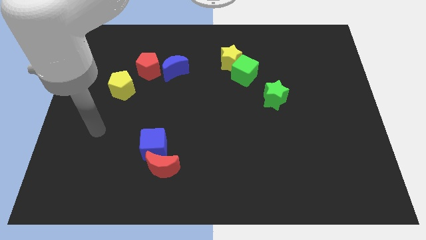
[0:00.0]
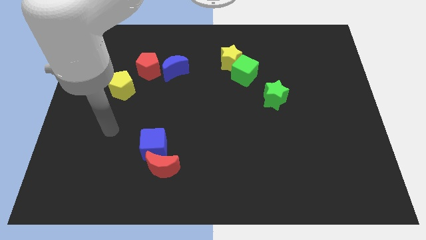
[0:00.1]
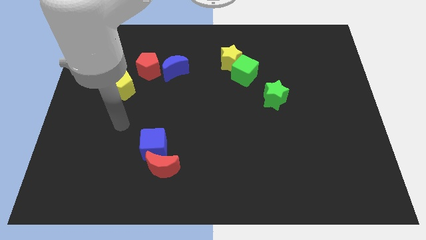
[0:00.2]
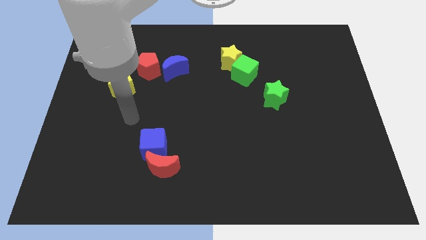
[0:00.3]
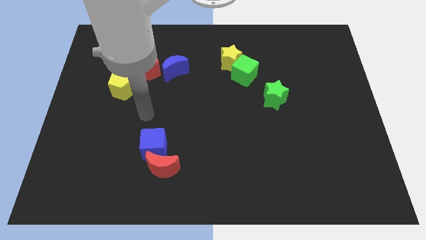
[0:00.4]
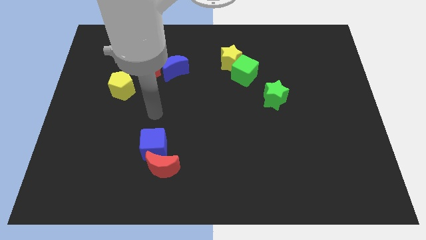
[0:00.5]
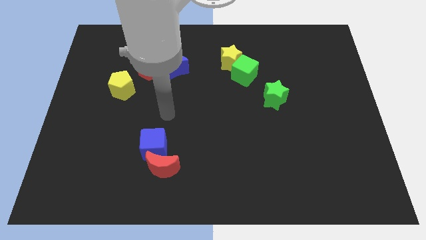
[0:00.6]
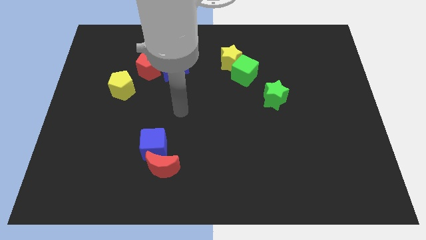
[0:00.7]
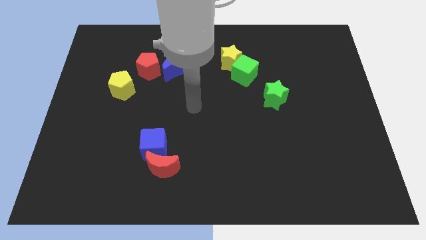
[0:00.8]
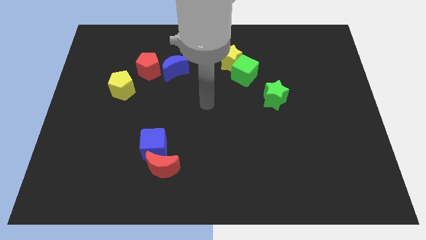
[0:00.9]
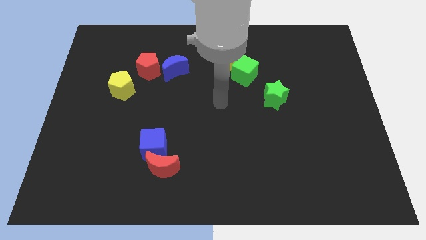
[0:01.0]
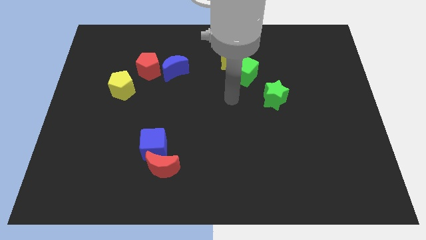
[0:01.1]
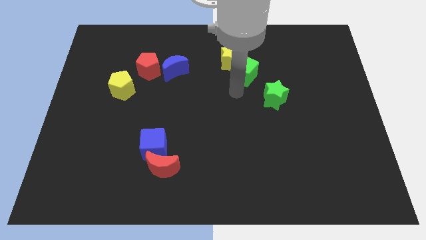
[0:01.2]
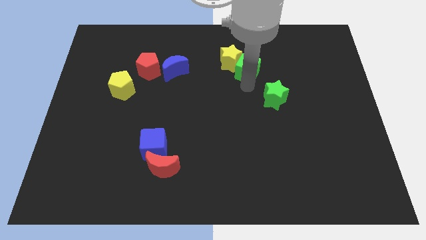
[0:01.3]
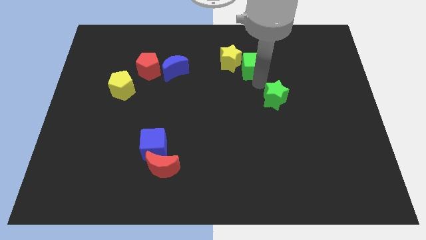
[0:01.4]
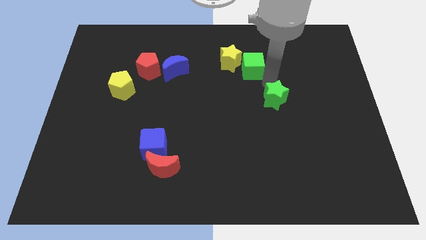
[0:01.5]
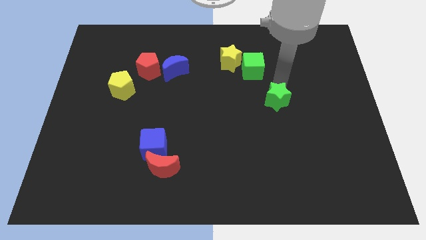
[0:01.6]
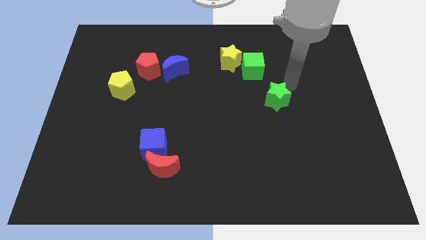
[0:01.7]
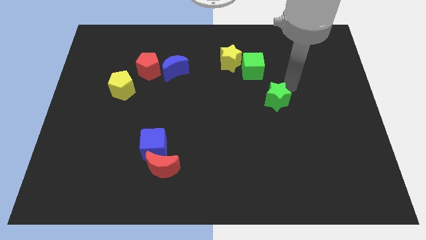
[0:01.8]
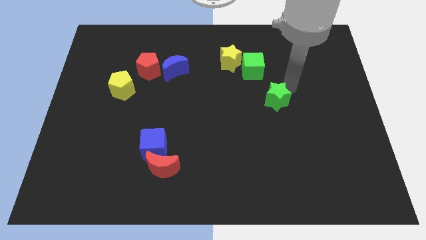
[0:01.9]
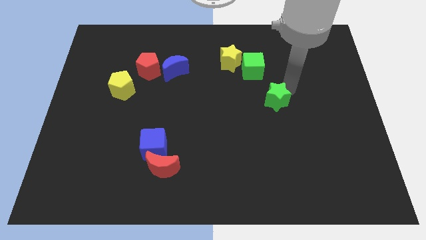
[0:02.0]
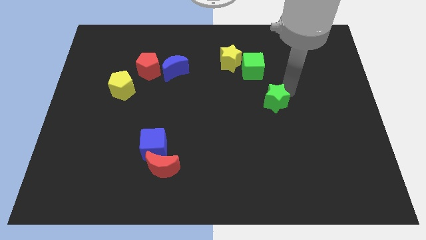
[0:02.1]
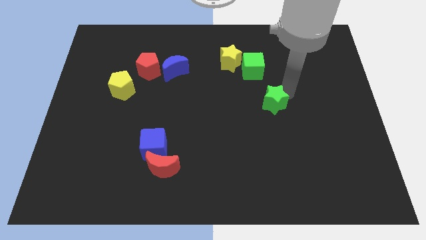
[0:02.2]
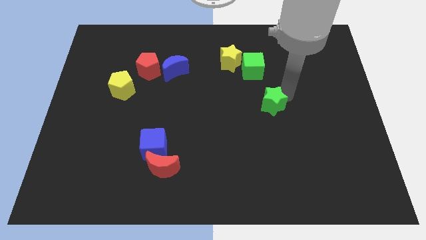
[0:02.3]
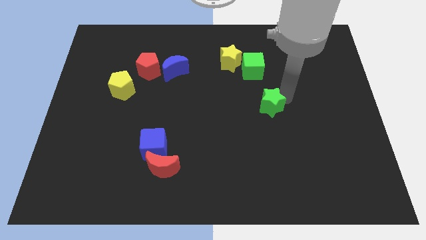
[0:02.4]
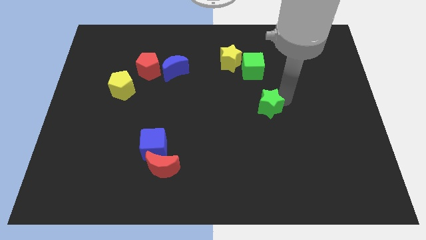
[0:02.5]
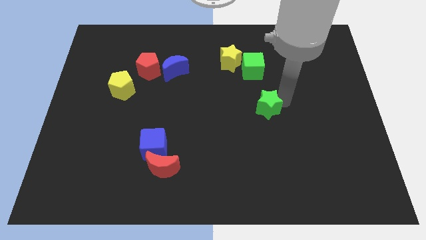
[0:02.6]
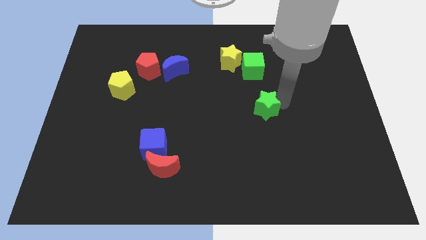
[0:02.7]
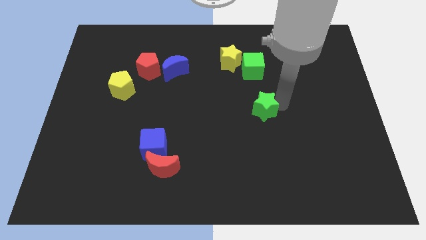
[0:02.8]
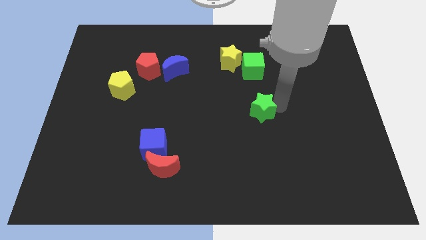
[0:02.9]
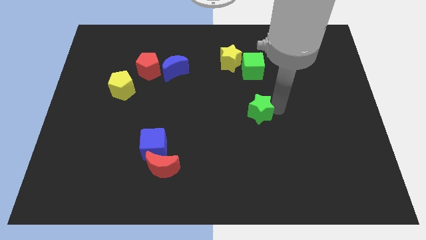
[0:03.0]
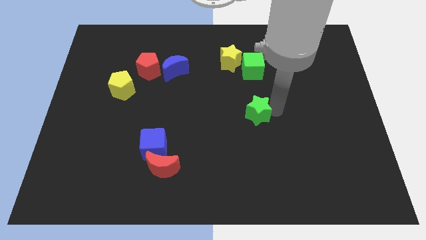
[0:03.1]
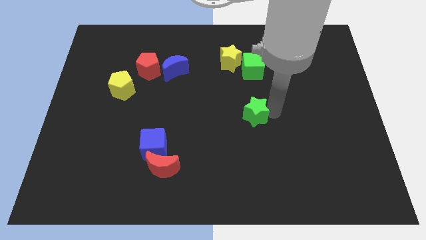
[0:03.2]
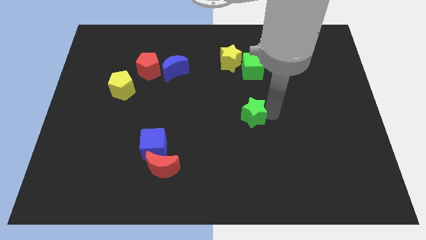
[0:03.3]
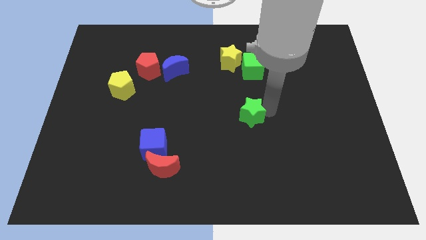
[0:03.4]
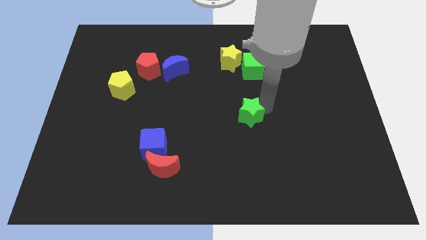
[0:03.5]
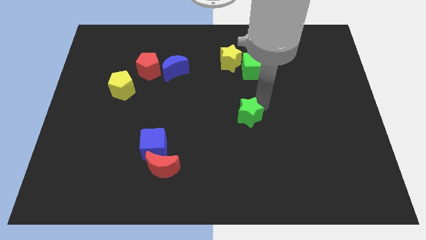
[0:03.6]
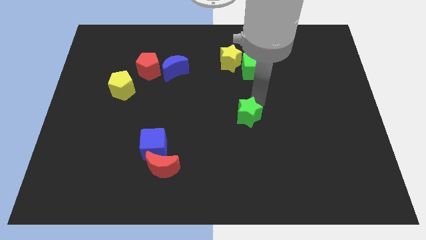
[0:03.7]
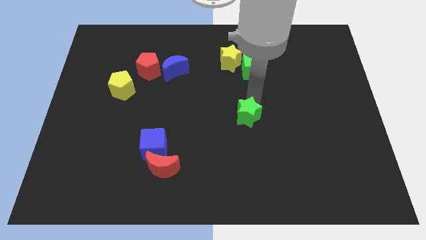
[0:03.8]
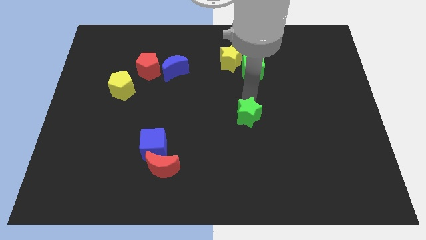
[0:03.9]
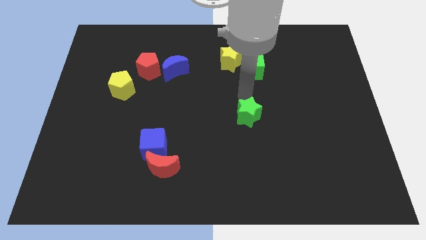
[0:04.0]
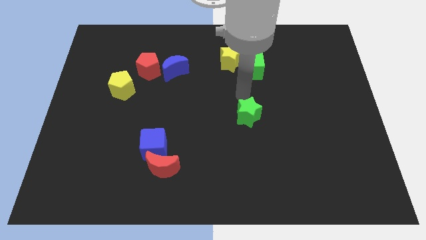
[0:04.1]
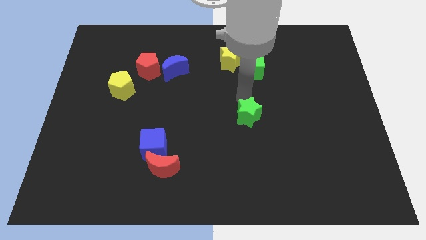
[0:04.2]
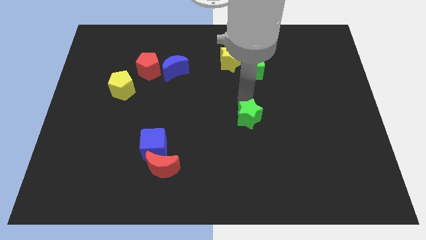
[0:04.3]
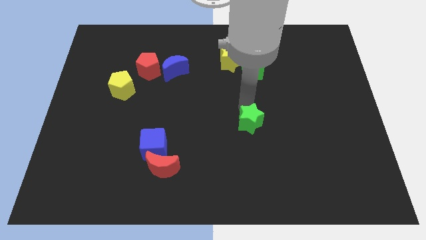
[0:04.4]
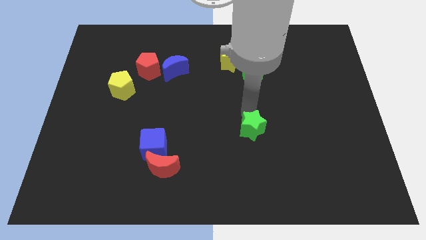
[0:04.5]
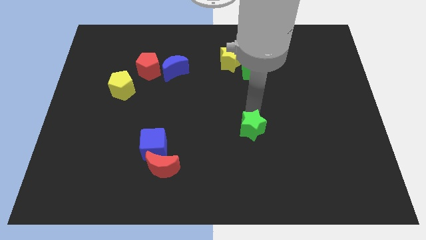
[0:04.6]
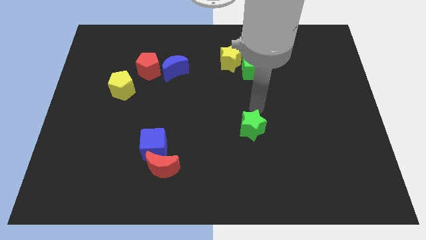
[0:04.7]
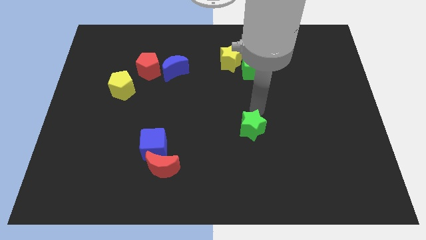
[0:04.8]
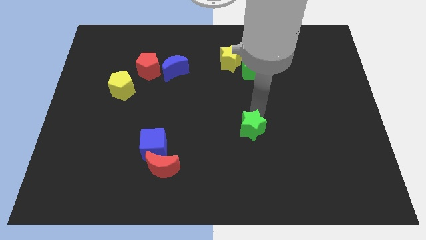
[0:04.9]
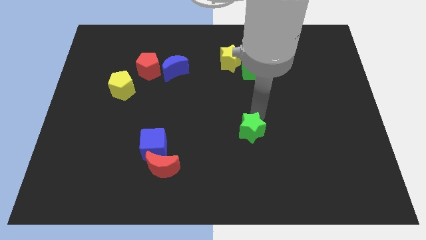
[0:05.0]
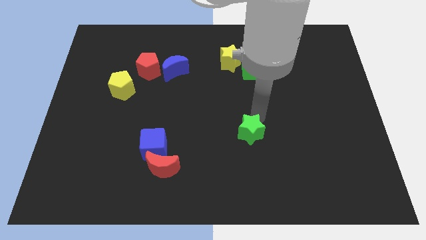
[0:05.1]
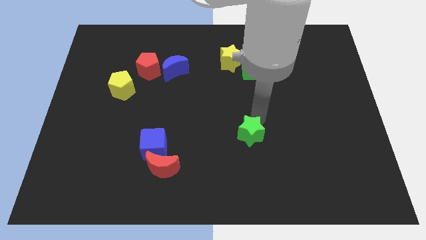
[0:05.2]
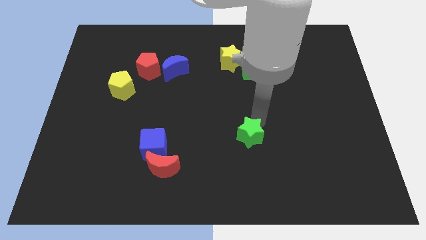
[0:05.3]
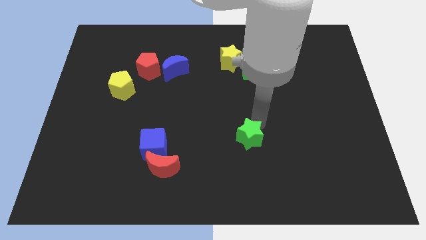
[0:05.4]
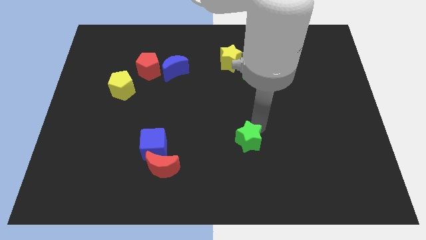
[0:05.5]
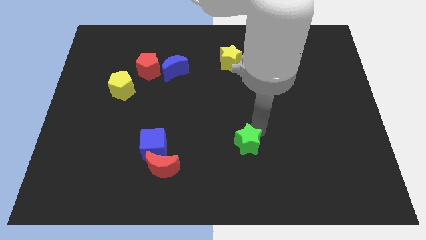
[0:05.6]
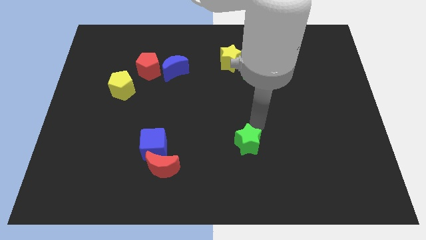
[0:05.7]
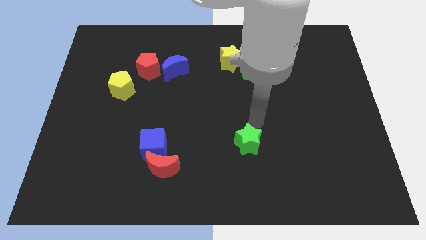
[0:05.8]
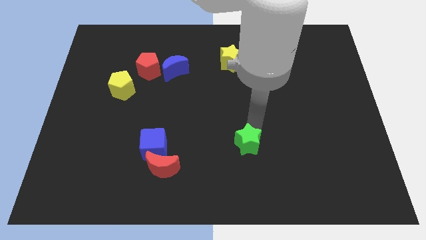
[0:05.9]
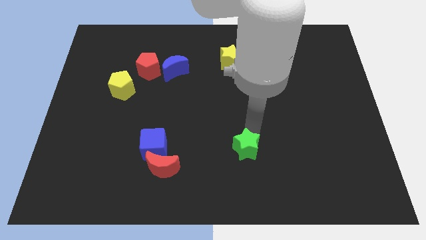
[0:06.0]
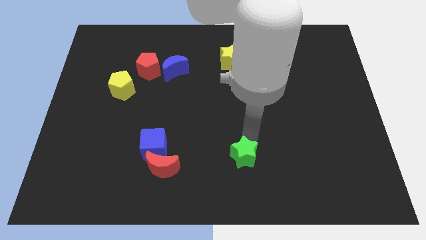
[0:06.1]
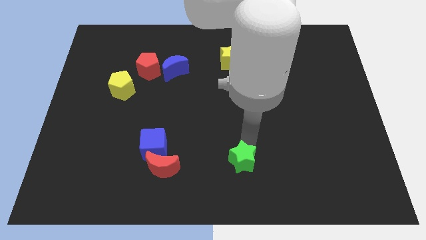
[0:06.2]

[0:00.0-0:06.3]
put the green star to the bottom side
